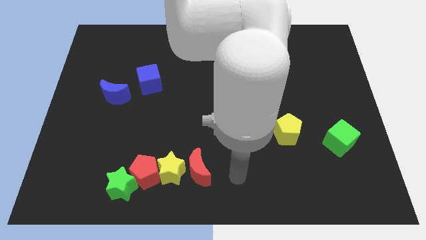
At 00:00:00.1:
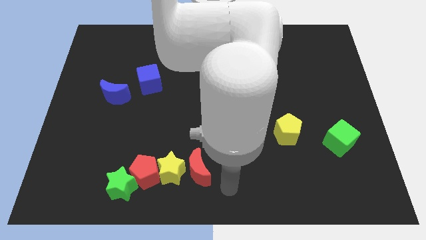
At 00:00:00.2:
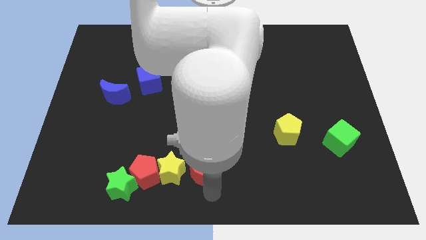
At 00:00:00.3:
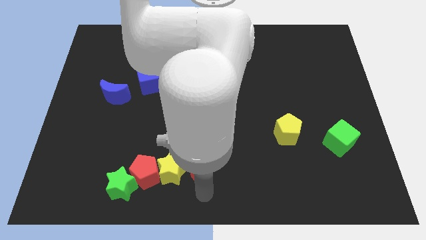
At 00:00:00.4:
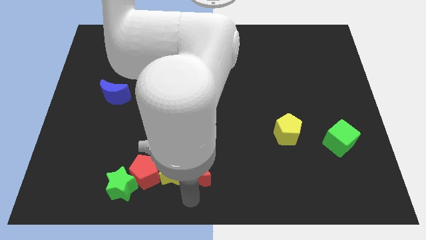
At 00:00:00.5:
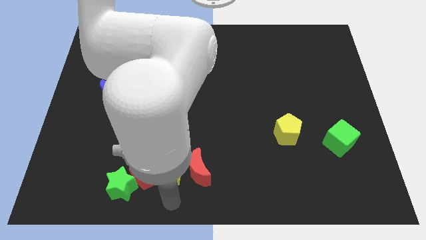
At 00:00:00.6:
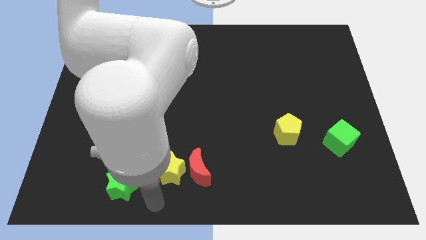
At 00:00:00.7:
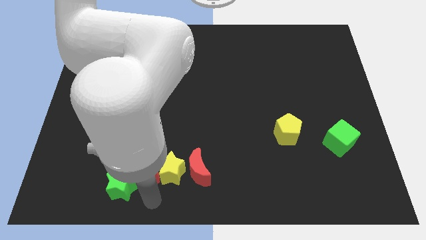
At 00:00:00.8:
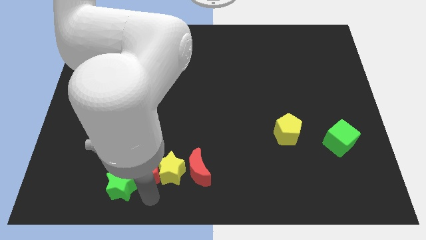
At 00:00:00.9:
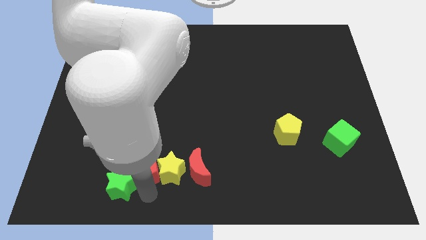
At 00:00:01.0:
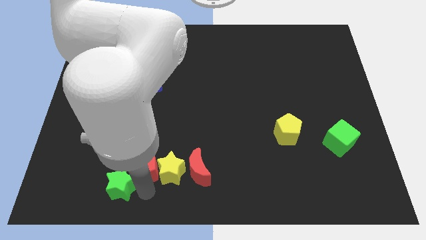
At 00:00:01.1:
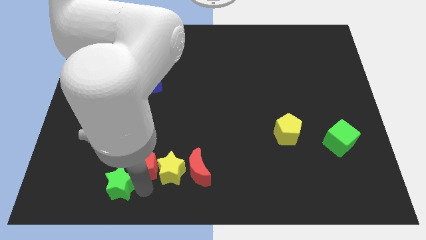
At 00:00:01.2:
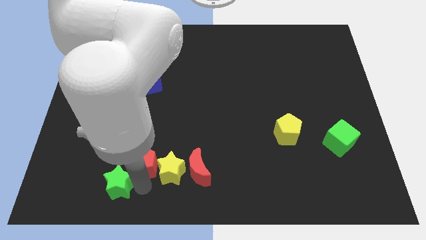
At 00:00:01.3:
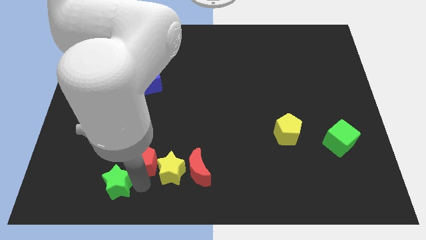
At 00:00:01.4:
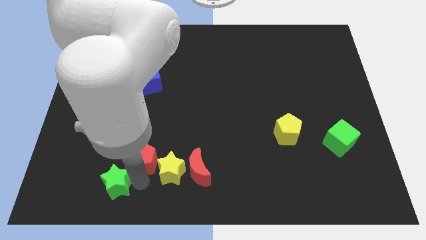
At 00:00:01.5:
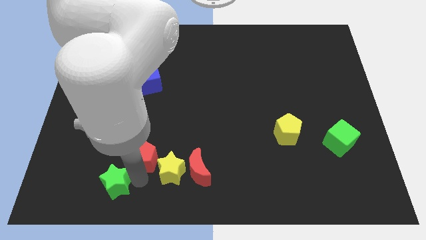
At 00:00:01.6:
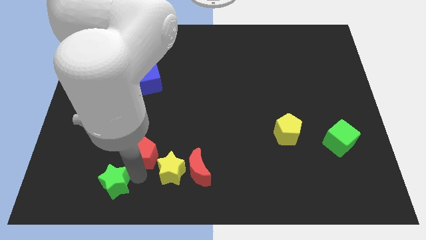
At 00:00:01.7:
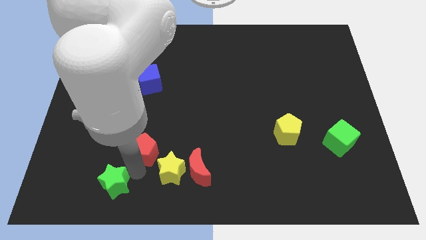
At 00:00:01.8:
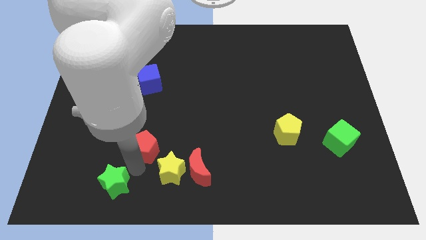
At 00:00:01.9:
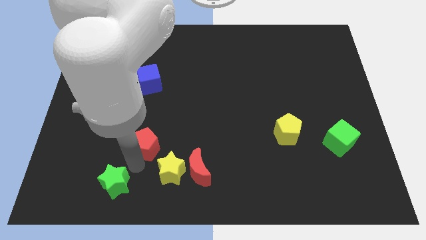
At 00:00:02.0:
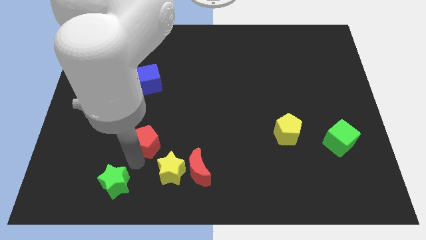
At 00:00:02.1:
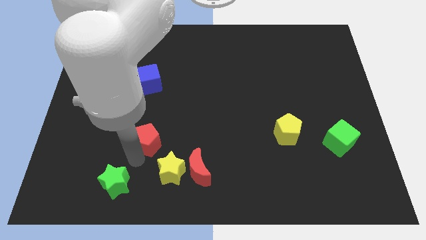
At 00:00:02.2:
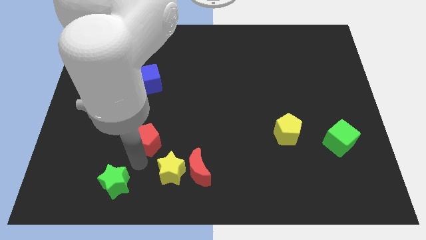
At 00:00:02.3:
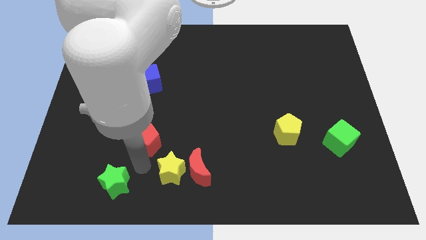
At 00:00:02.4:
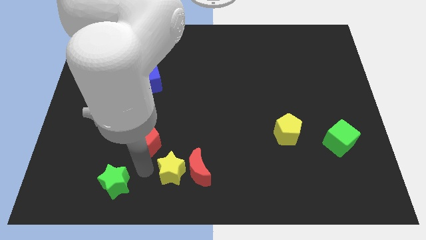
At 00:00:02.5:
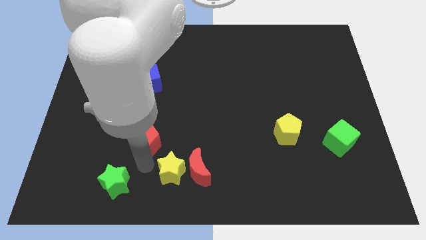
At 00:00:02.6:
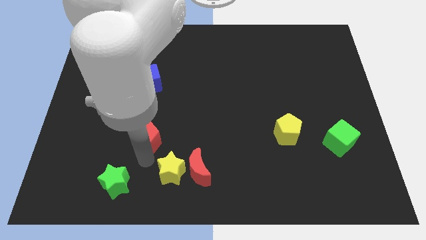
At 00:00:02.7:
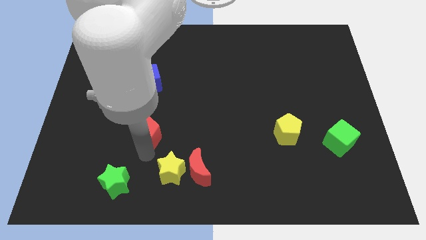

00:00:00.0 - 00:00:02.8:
pull the red pentagon apart from the yellow star and green star

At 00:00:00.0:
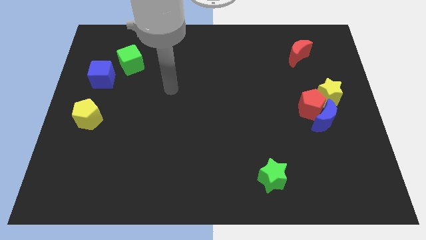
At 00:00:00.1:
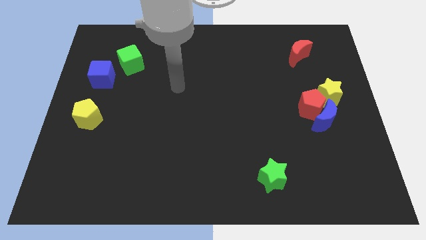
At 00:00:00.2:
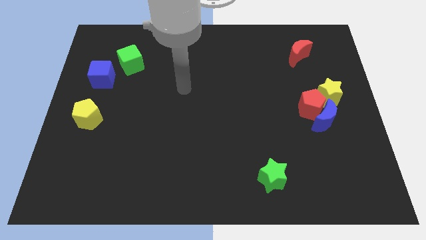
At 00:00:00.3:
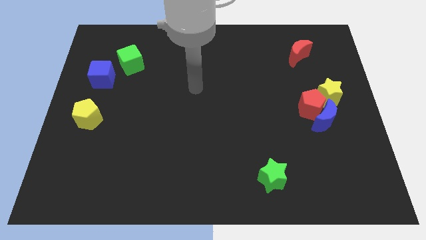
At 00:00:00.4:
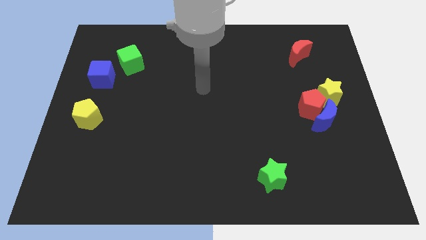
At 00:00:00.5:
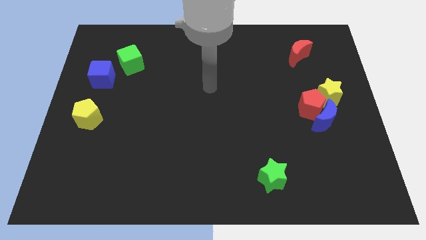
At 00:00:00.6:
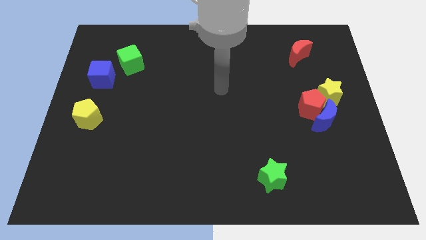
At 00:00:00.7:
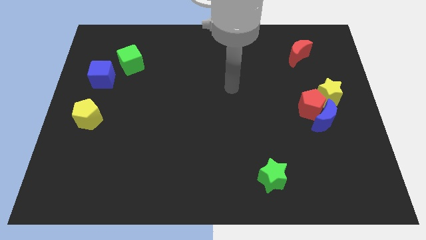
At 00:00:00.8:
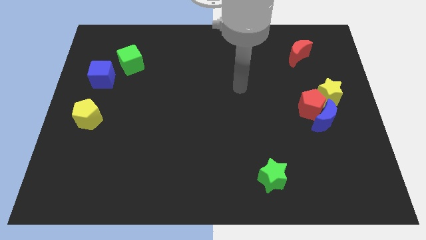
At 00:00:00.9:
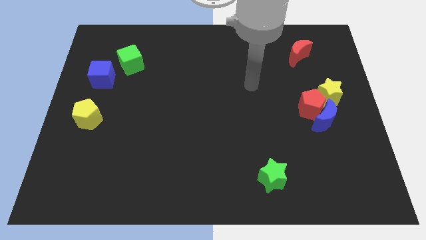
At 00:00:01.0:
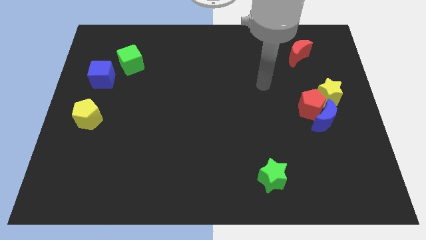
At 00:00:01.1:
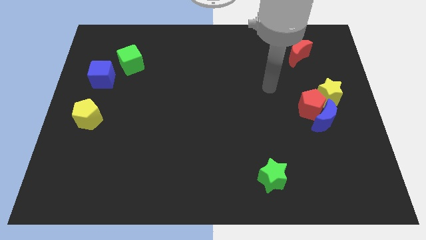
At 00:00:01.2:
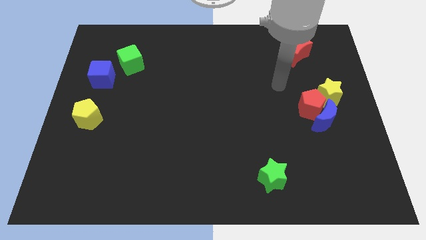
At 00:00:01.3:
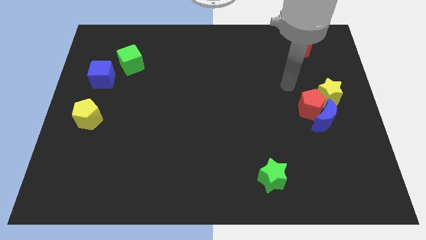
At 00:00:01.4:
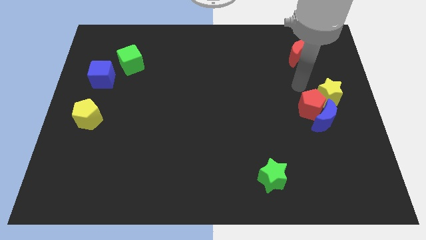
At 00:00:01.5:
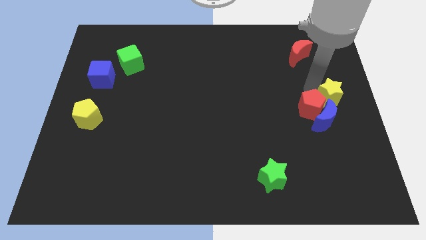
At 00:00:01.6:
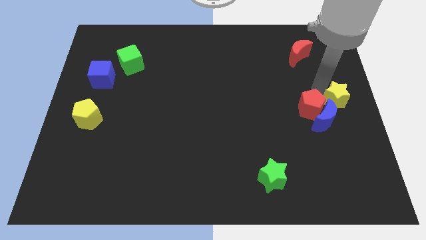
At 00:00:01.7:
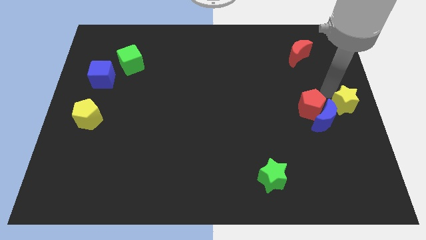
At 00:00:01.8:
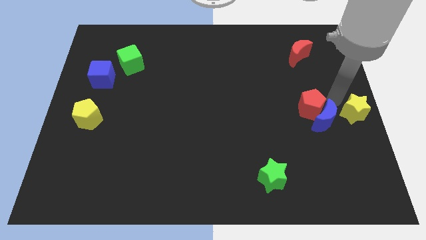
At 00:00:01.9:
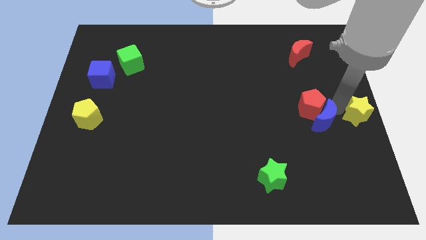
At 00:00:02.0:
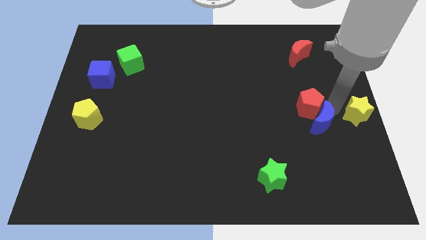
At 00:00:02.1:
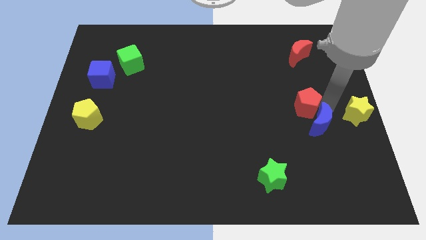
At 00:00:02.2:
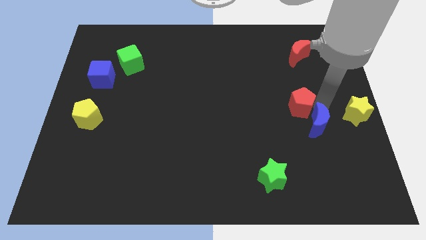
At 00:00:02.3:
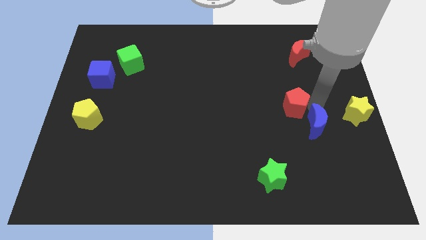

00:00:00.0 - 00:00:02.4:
move the red pentagon away from the blue moon and yellow star

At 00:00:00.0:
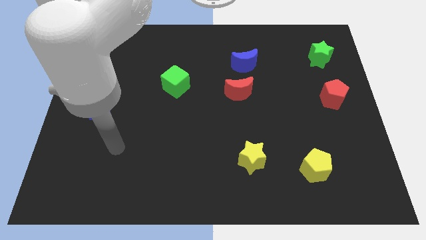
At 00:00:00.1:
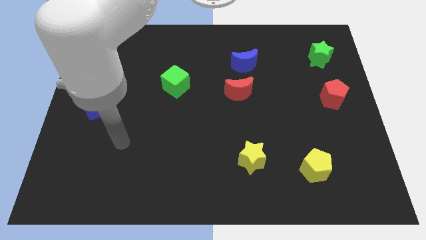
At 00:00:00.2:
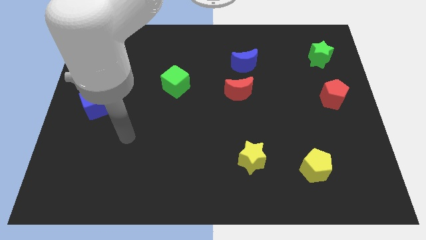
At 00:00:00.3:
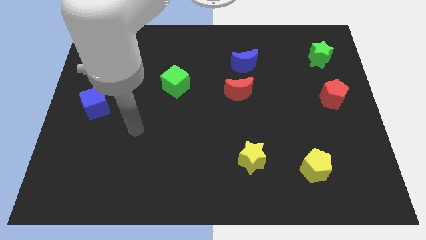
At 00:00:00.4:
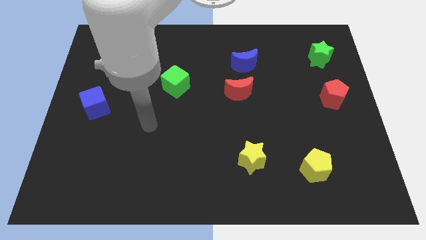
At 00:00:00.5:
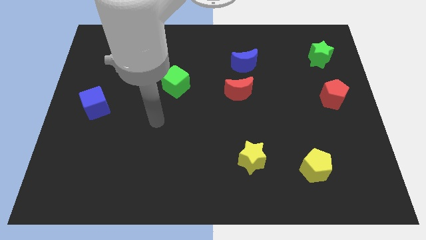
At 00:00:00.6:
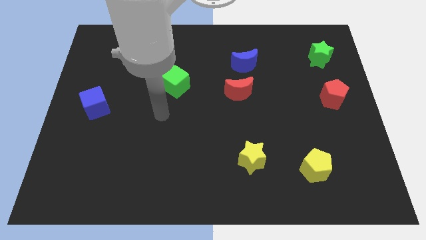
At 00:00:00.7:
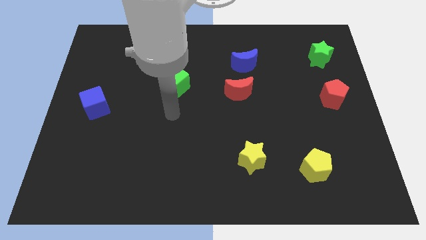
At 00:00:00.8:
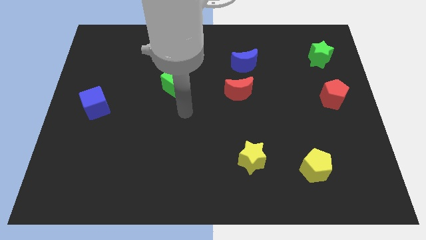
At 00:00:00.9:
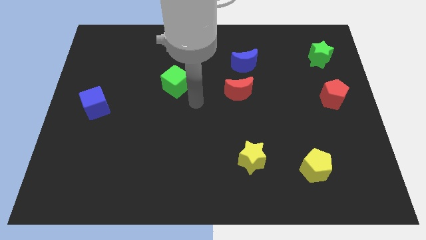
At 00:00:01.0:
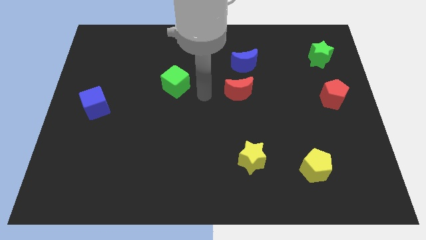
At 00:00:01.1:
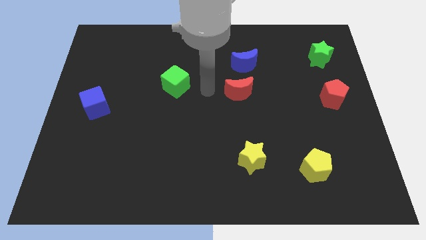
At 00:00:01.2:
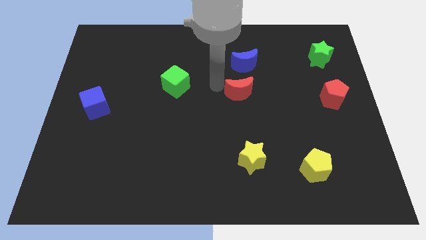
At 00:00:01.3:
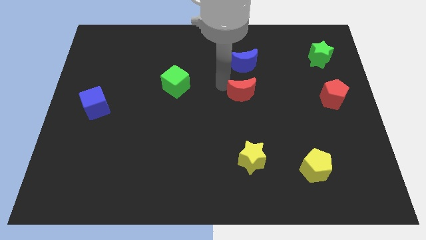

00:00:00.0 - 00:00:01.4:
pull the red moon apart from the blue moon

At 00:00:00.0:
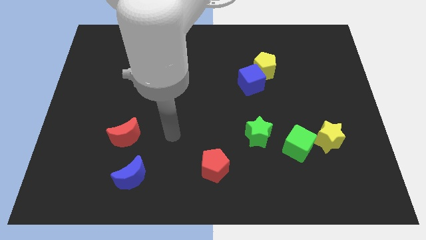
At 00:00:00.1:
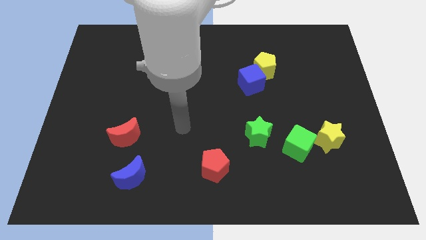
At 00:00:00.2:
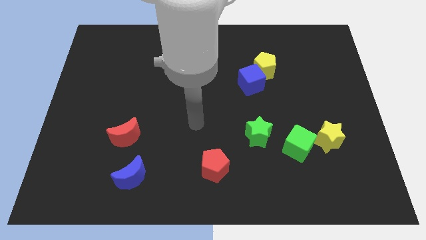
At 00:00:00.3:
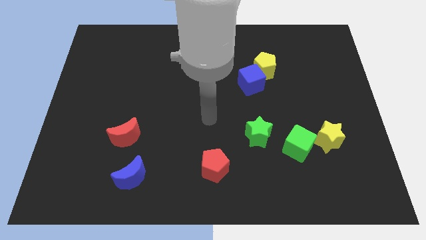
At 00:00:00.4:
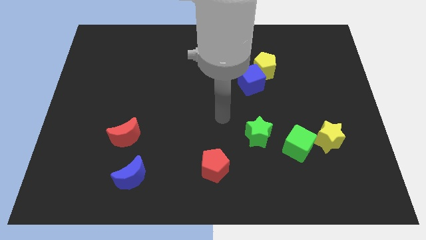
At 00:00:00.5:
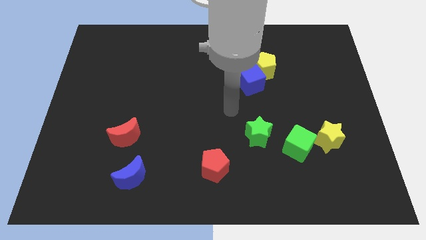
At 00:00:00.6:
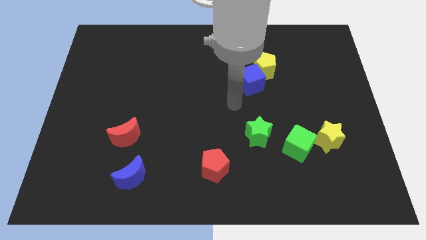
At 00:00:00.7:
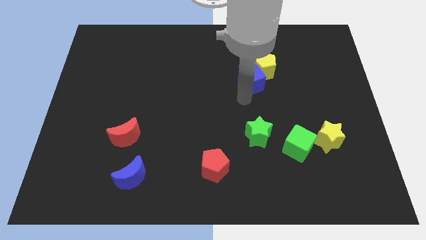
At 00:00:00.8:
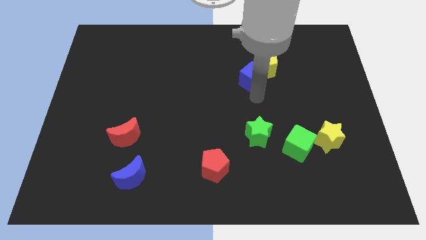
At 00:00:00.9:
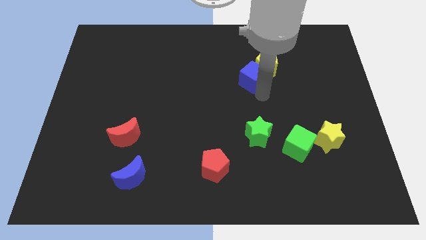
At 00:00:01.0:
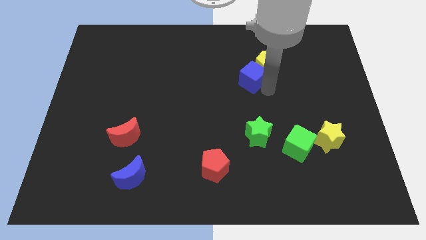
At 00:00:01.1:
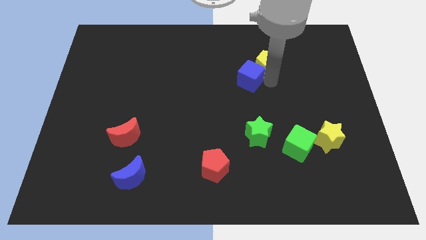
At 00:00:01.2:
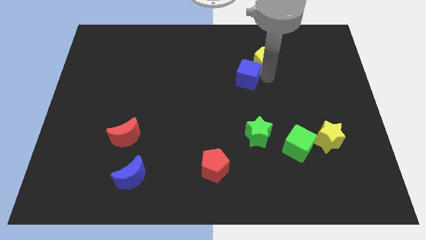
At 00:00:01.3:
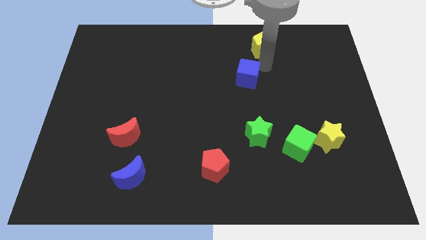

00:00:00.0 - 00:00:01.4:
move the blue cube away from the yellow pentagon

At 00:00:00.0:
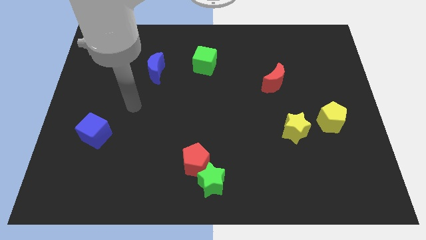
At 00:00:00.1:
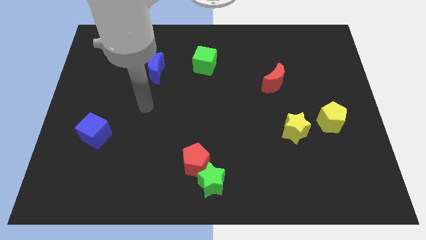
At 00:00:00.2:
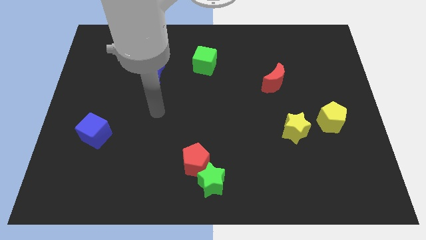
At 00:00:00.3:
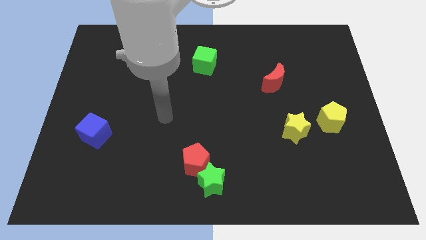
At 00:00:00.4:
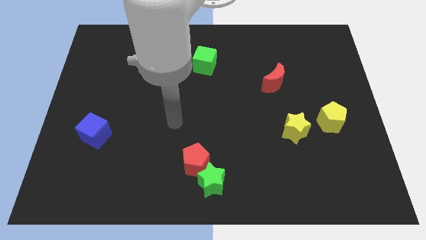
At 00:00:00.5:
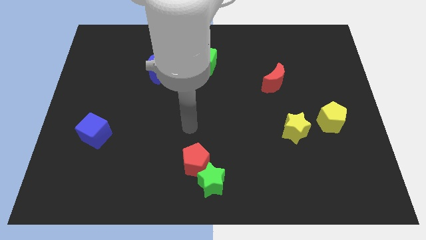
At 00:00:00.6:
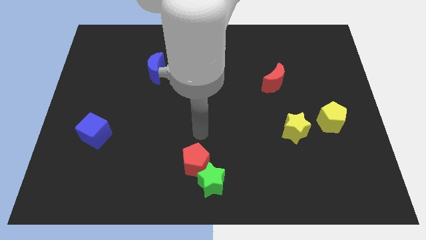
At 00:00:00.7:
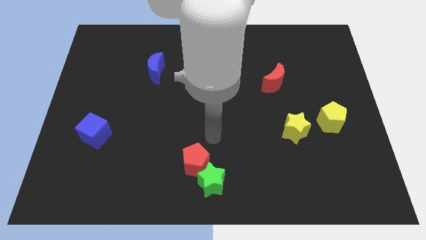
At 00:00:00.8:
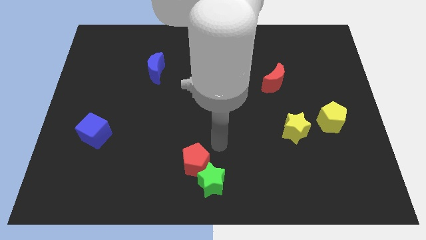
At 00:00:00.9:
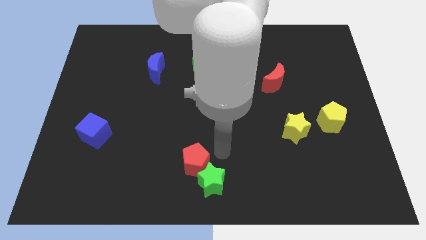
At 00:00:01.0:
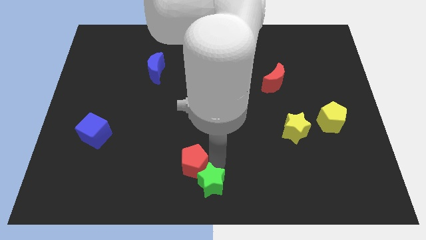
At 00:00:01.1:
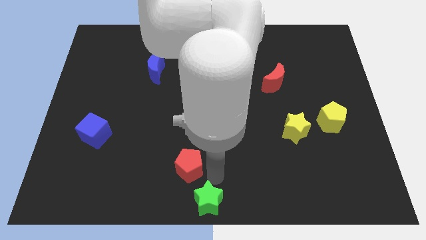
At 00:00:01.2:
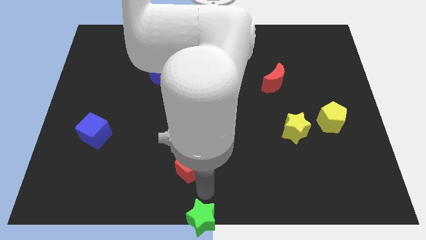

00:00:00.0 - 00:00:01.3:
pull the red pentagon apart from the green star
